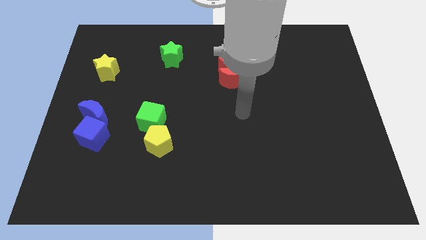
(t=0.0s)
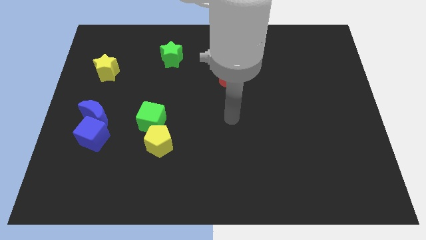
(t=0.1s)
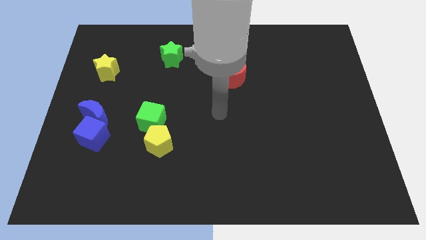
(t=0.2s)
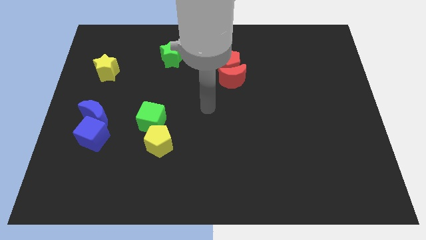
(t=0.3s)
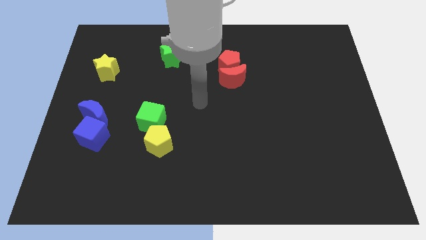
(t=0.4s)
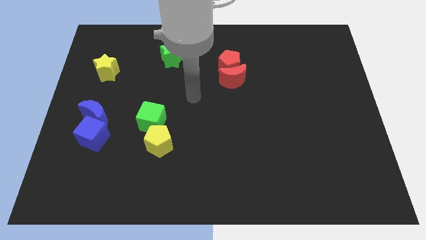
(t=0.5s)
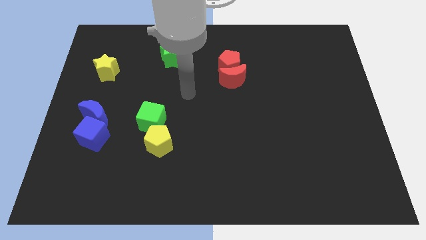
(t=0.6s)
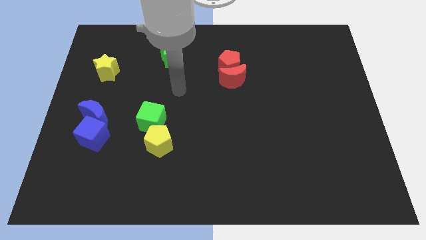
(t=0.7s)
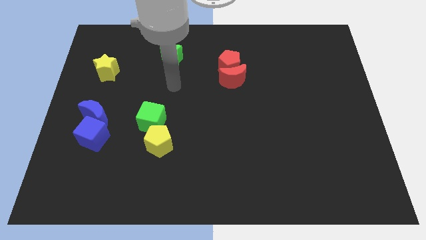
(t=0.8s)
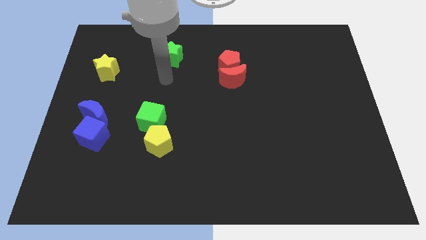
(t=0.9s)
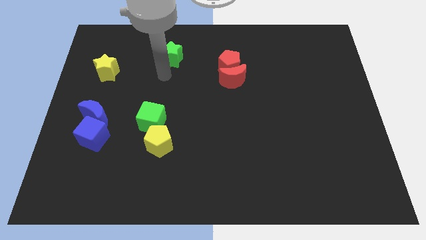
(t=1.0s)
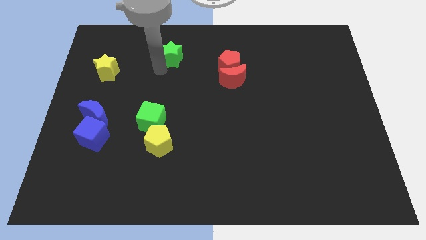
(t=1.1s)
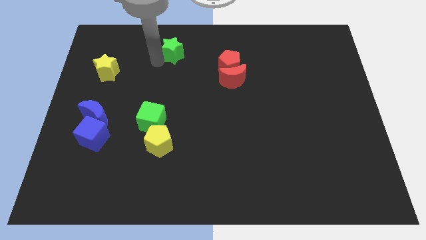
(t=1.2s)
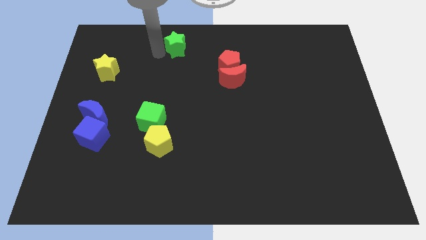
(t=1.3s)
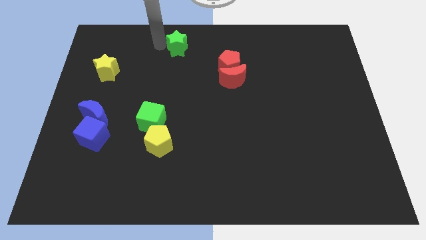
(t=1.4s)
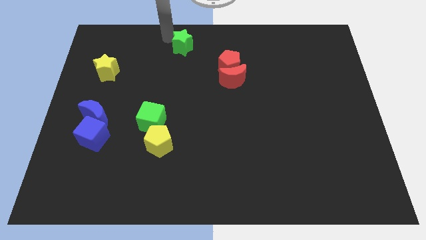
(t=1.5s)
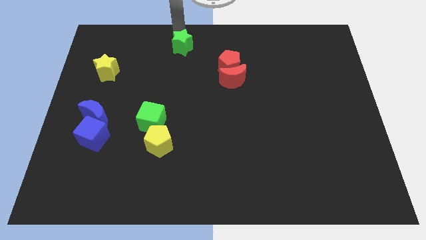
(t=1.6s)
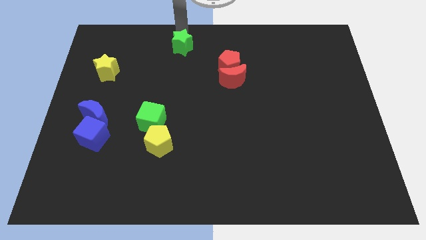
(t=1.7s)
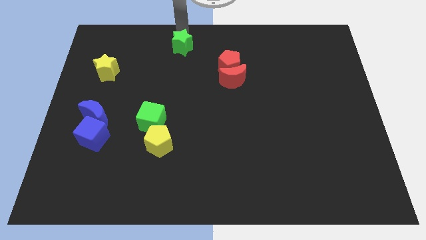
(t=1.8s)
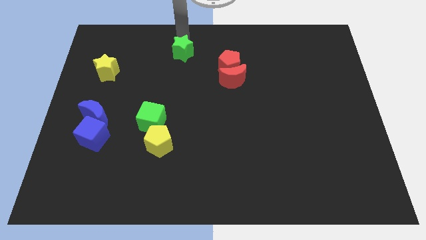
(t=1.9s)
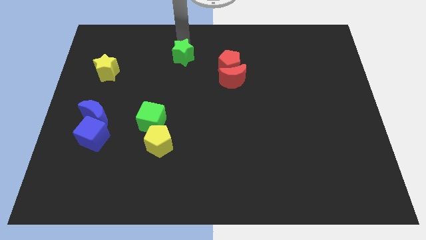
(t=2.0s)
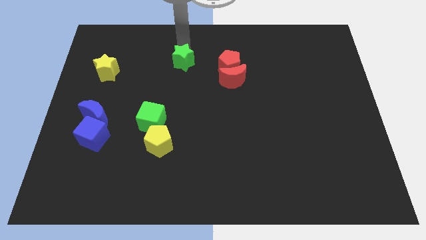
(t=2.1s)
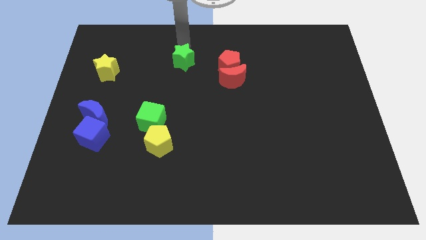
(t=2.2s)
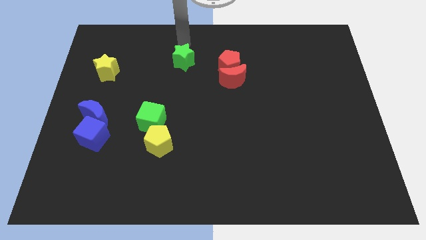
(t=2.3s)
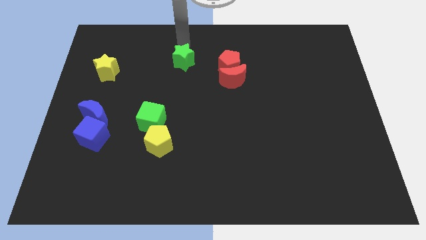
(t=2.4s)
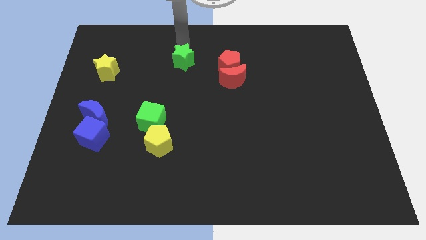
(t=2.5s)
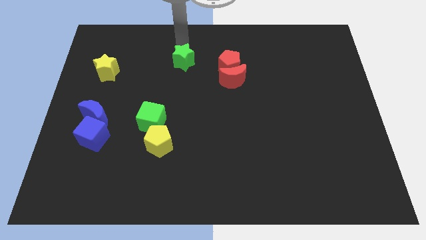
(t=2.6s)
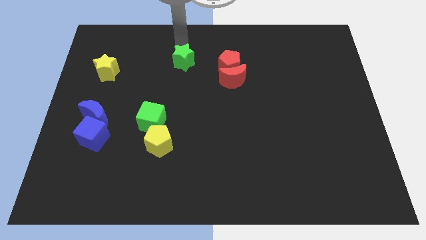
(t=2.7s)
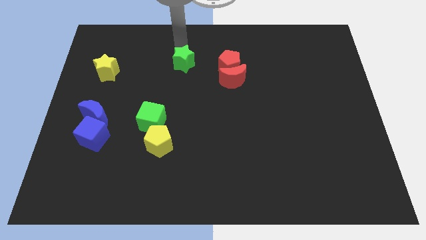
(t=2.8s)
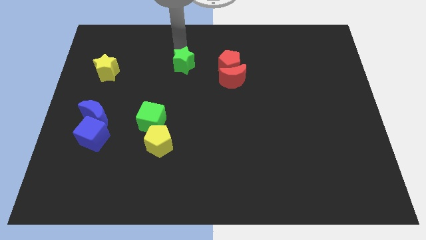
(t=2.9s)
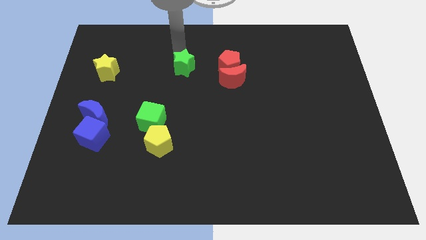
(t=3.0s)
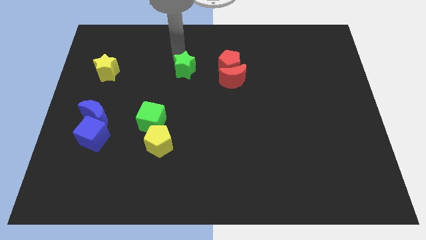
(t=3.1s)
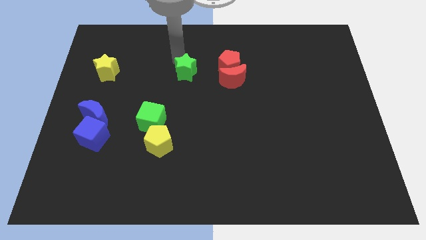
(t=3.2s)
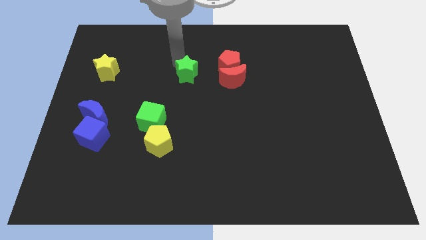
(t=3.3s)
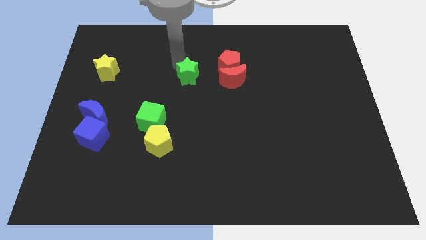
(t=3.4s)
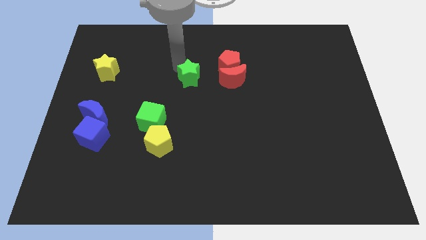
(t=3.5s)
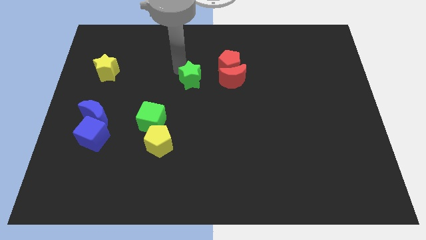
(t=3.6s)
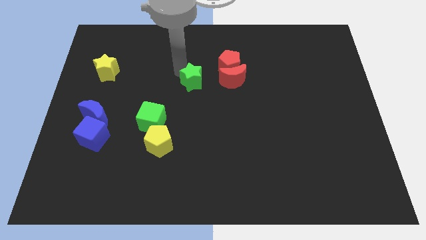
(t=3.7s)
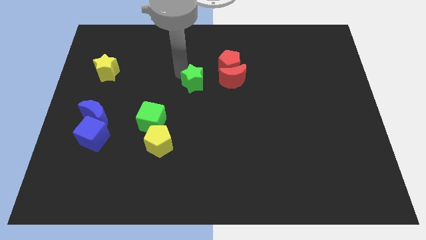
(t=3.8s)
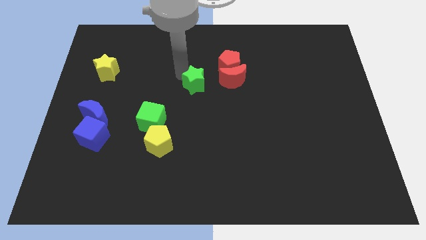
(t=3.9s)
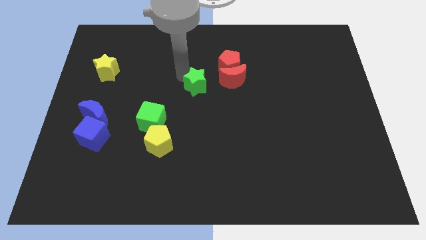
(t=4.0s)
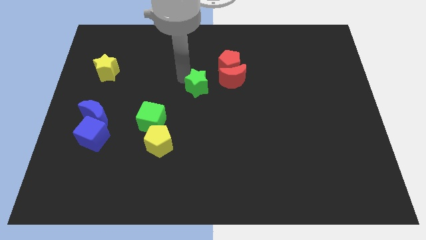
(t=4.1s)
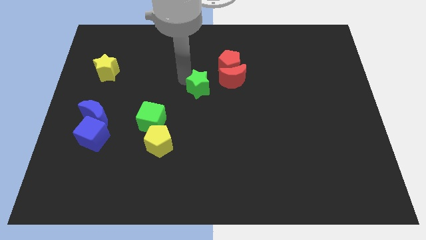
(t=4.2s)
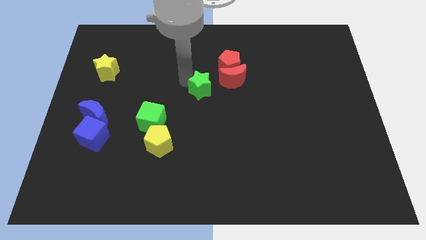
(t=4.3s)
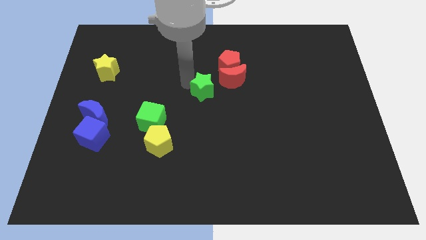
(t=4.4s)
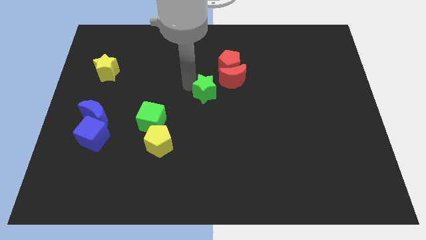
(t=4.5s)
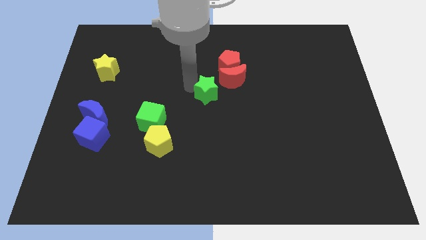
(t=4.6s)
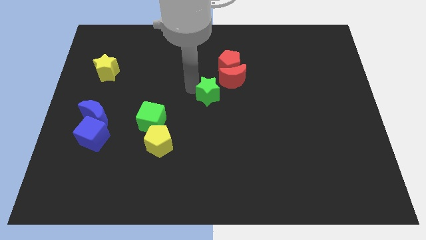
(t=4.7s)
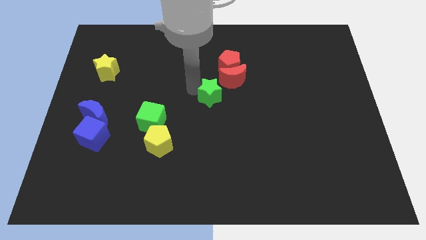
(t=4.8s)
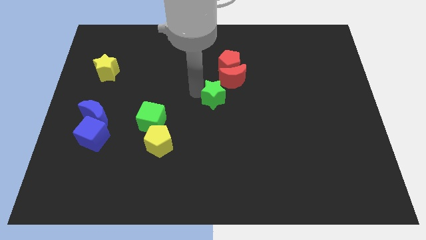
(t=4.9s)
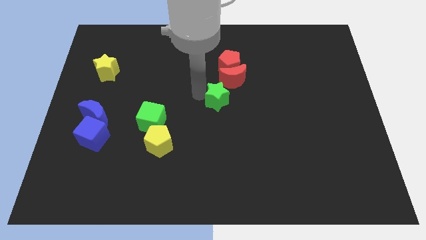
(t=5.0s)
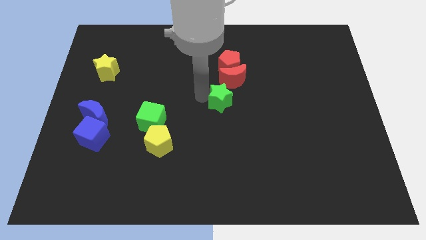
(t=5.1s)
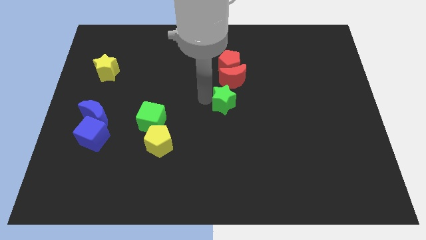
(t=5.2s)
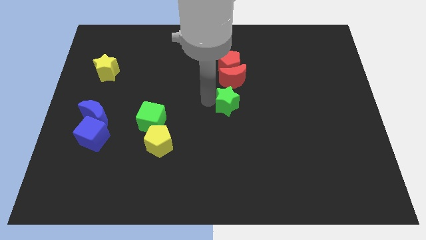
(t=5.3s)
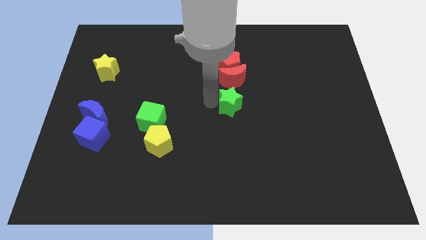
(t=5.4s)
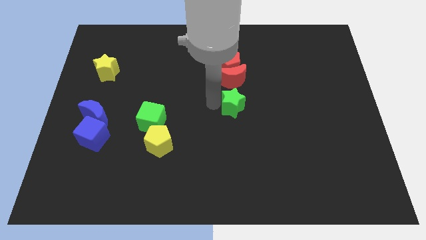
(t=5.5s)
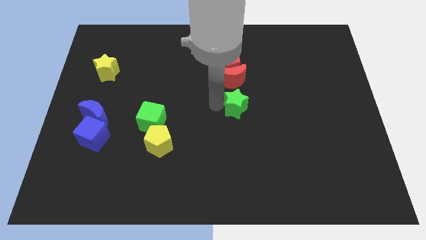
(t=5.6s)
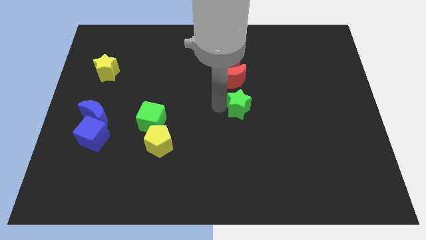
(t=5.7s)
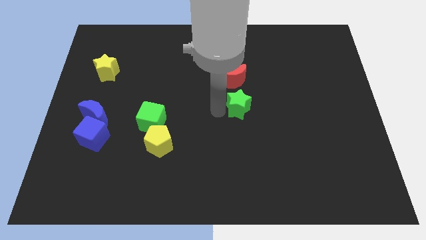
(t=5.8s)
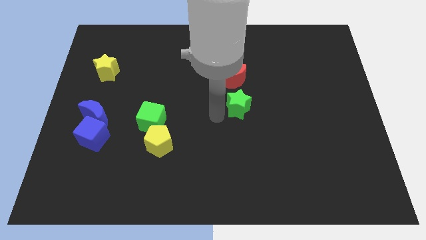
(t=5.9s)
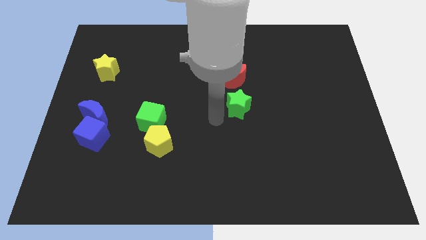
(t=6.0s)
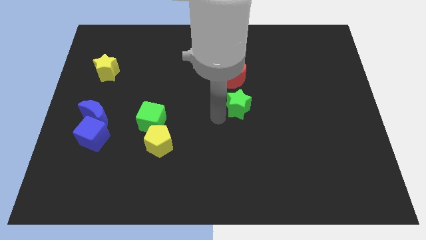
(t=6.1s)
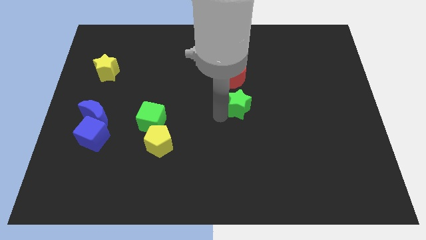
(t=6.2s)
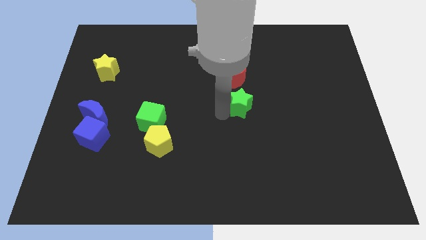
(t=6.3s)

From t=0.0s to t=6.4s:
slide the green star diagonally down and to the right of the red moon
